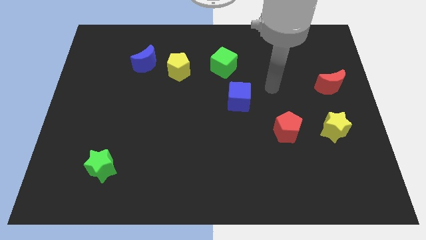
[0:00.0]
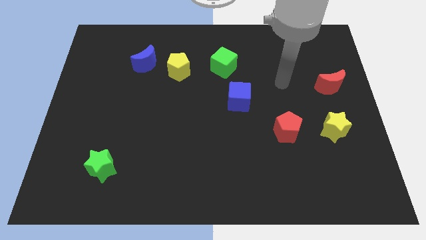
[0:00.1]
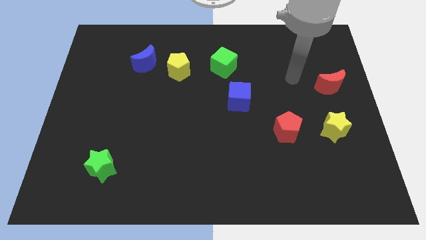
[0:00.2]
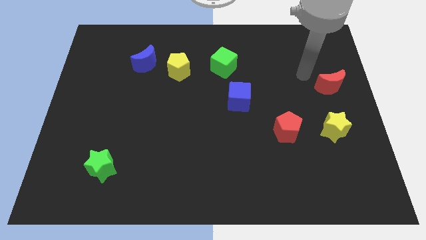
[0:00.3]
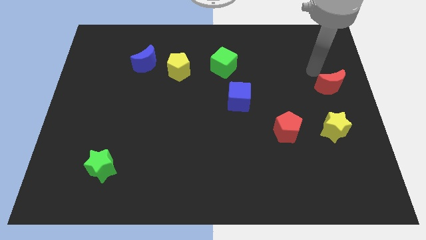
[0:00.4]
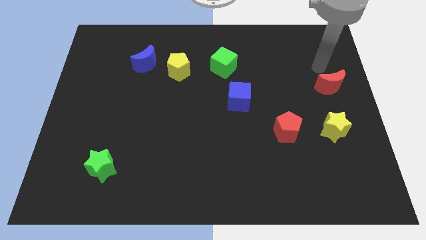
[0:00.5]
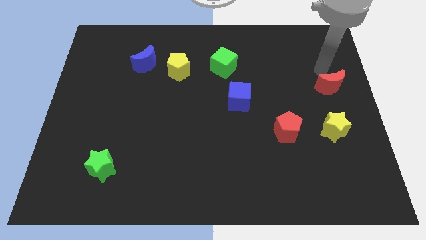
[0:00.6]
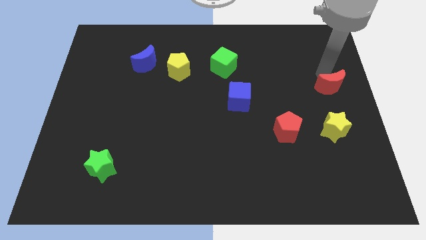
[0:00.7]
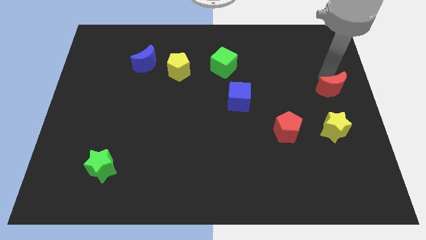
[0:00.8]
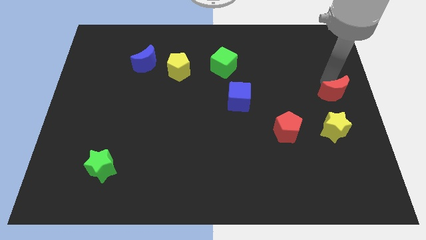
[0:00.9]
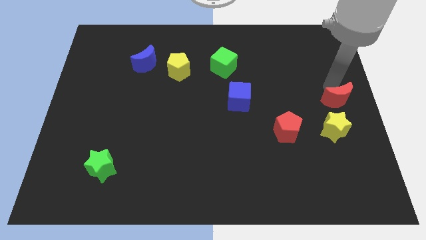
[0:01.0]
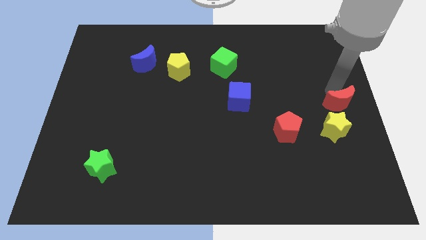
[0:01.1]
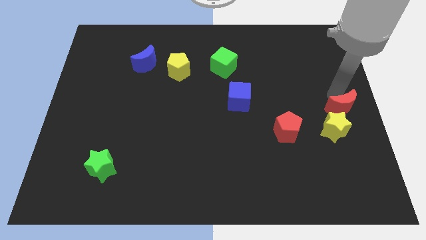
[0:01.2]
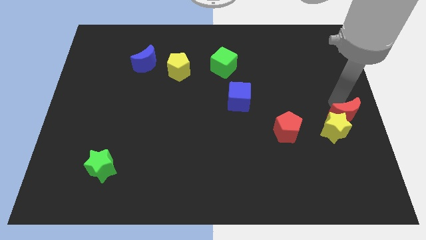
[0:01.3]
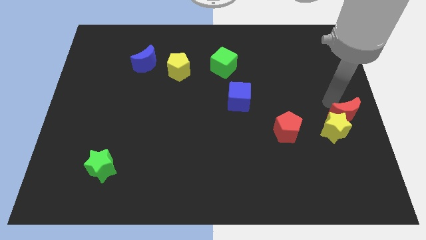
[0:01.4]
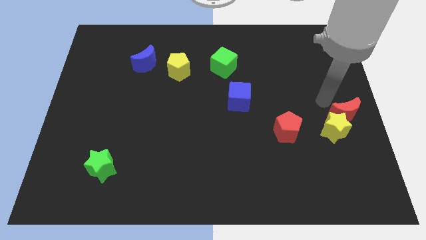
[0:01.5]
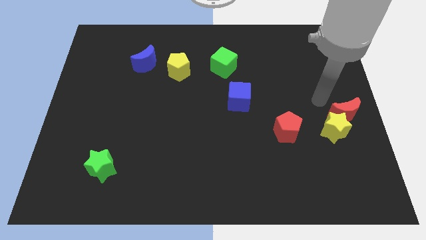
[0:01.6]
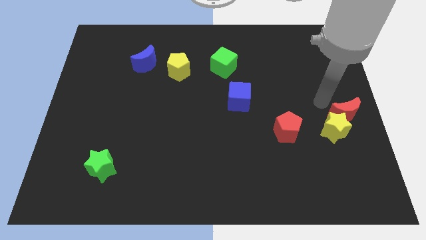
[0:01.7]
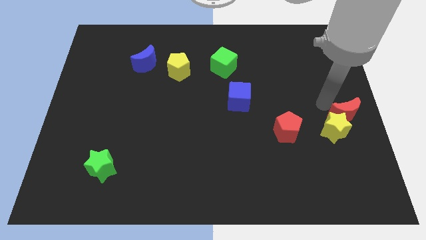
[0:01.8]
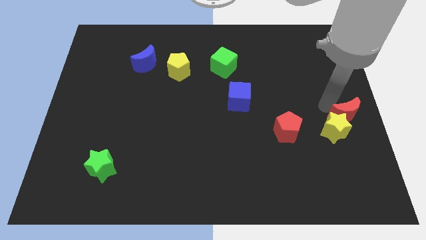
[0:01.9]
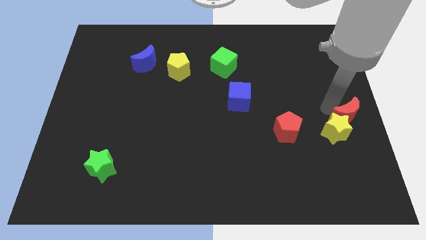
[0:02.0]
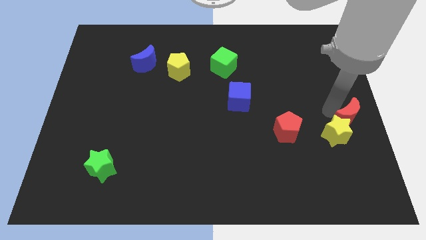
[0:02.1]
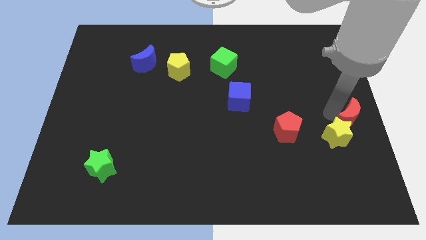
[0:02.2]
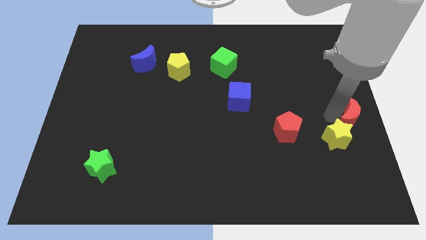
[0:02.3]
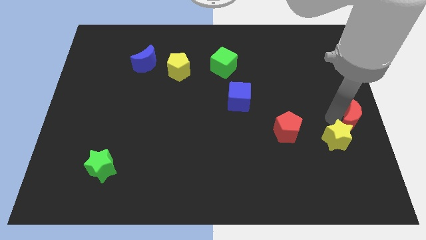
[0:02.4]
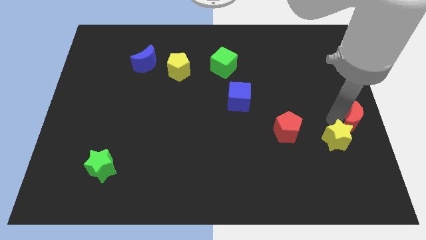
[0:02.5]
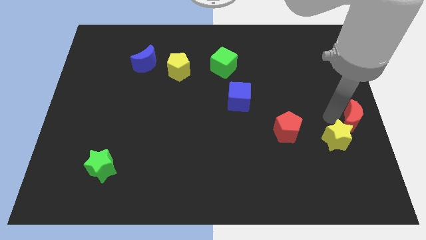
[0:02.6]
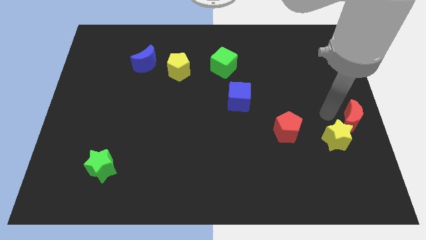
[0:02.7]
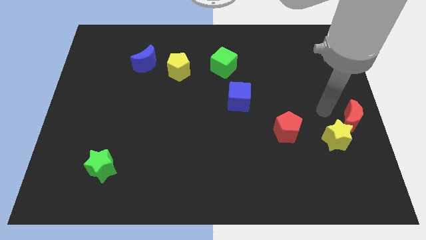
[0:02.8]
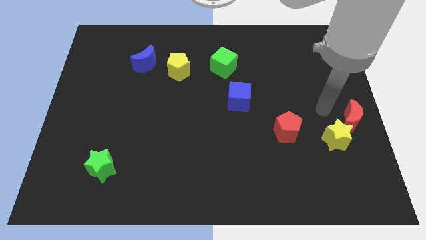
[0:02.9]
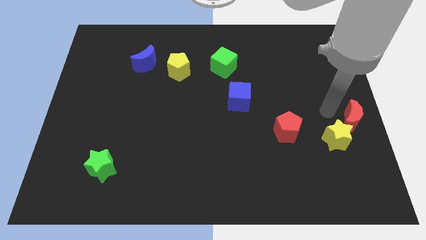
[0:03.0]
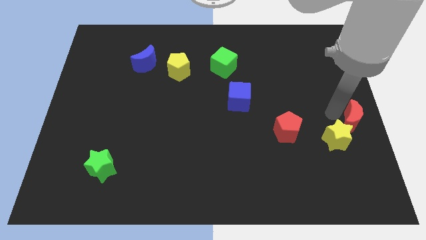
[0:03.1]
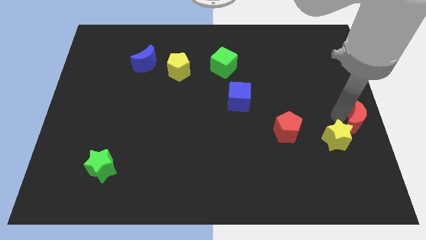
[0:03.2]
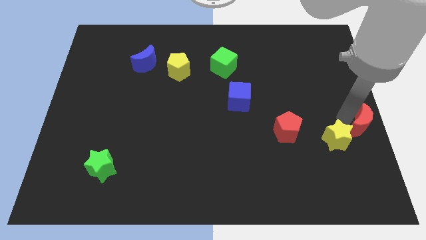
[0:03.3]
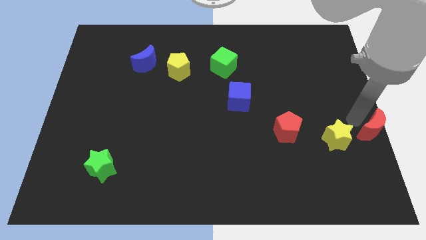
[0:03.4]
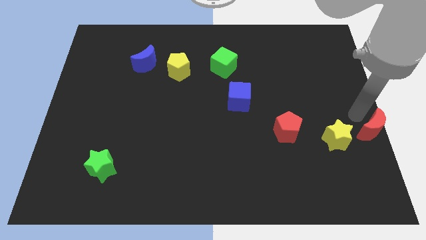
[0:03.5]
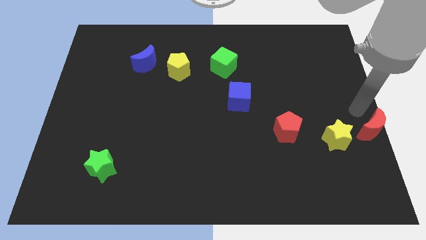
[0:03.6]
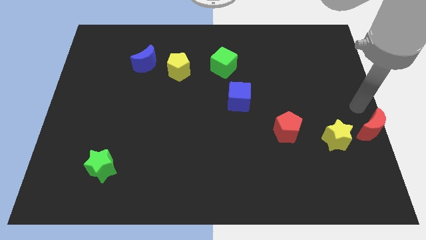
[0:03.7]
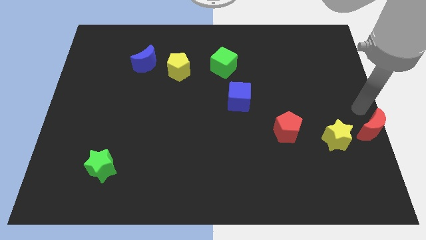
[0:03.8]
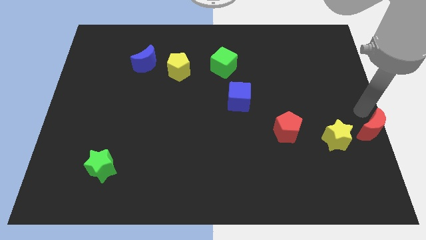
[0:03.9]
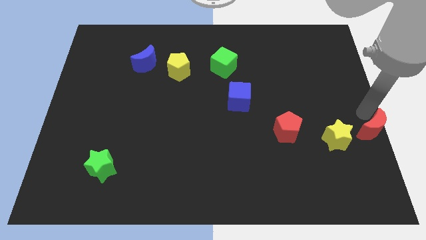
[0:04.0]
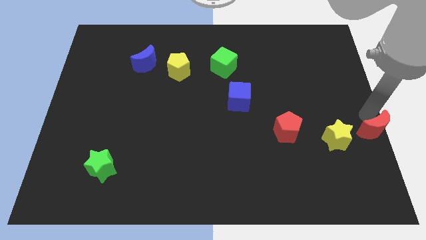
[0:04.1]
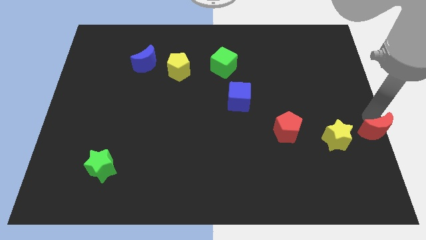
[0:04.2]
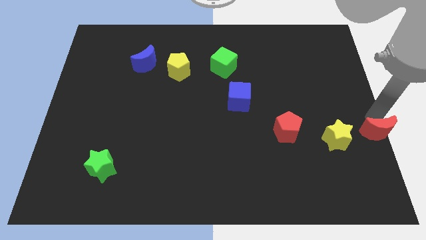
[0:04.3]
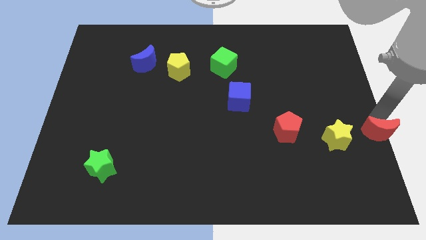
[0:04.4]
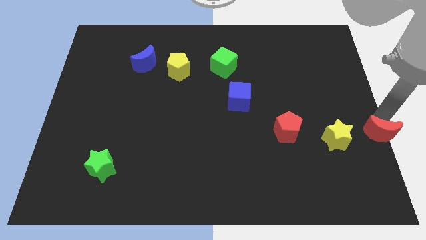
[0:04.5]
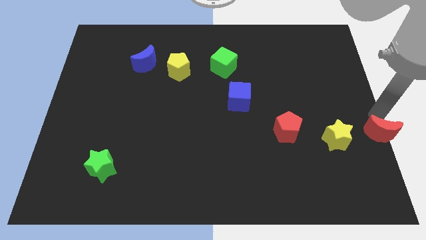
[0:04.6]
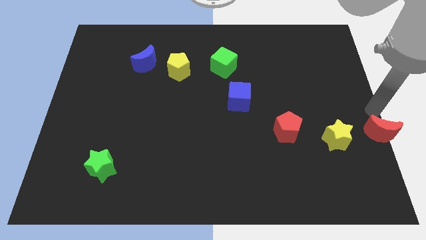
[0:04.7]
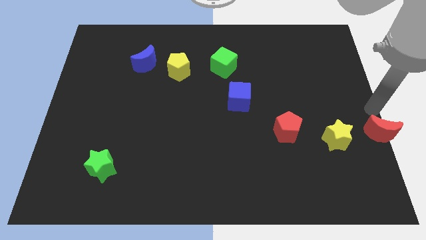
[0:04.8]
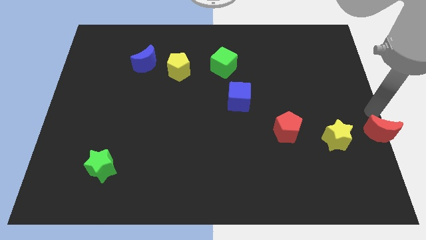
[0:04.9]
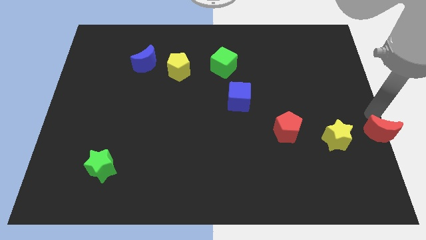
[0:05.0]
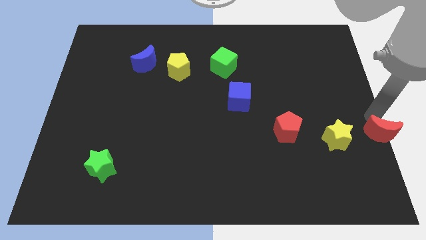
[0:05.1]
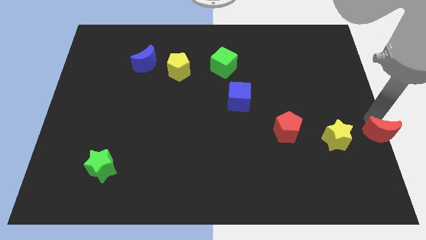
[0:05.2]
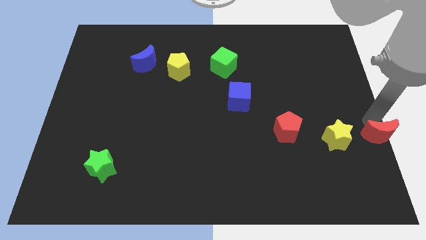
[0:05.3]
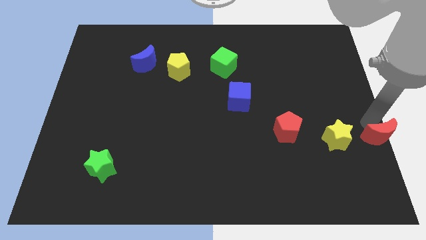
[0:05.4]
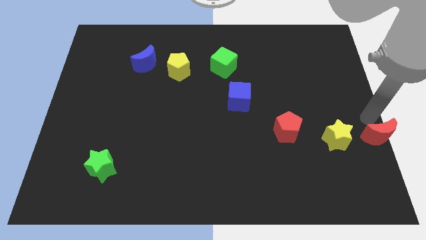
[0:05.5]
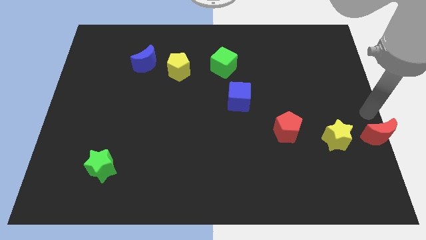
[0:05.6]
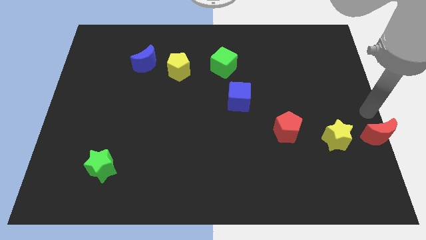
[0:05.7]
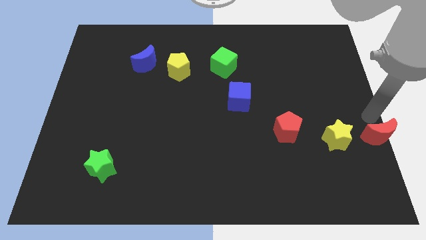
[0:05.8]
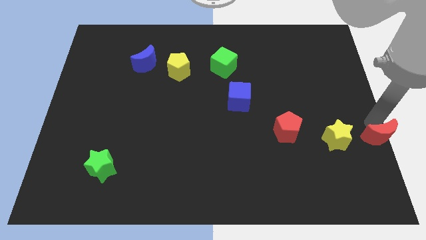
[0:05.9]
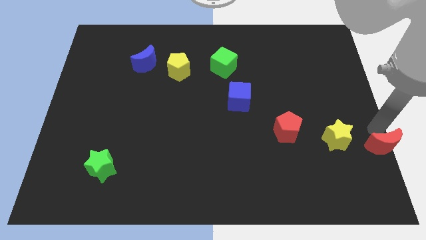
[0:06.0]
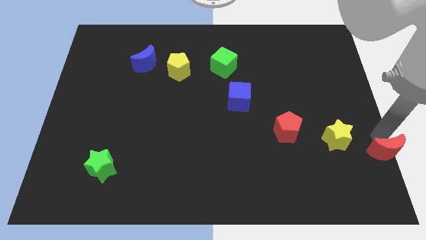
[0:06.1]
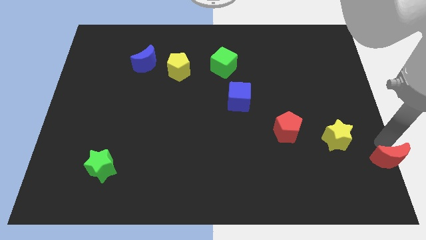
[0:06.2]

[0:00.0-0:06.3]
slide the red moon to the bottom right corner
